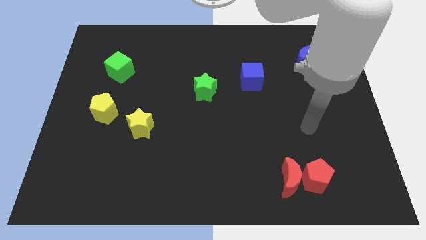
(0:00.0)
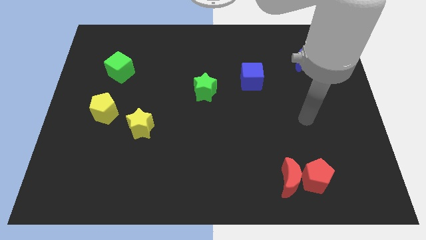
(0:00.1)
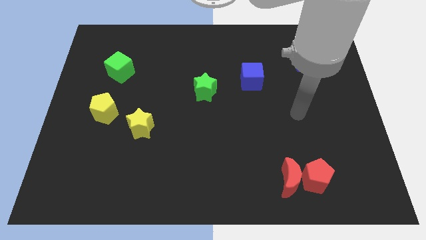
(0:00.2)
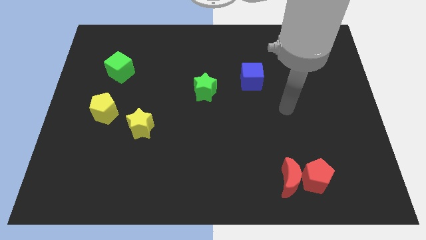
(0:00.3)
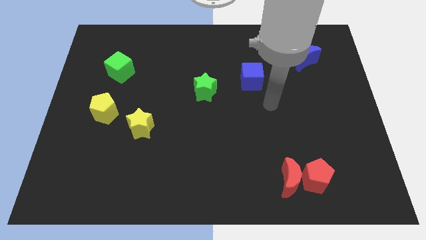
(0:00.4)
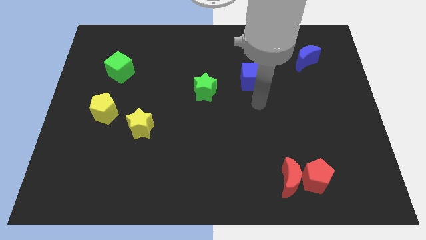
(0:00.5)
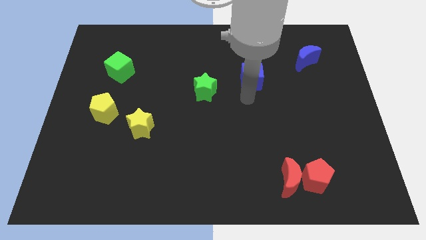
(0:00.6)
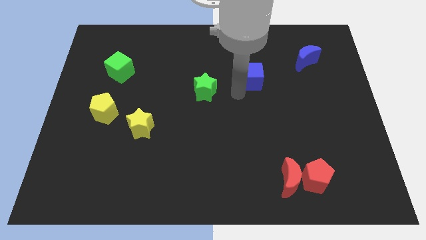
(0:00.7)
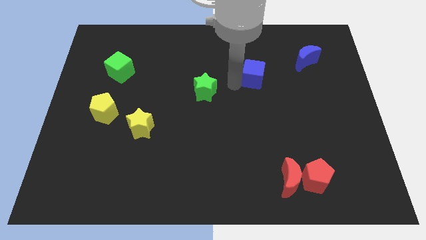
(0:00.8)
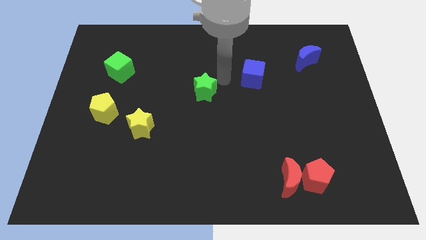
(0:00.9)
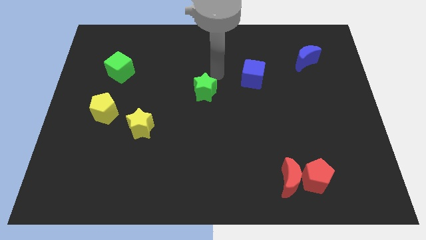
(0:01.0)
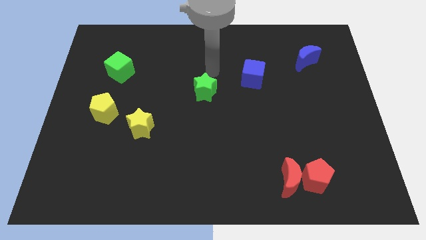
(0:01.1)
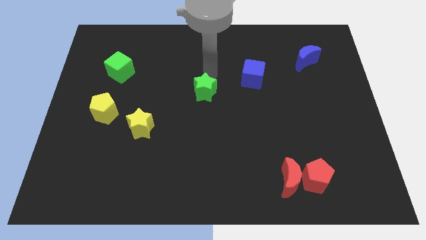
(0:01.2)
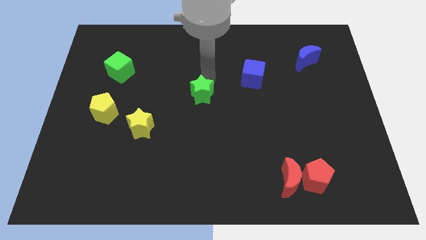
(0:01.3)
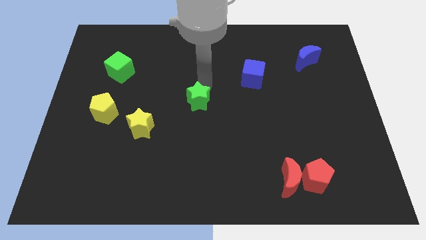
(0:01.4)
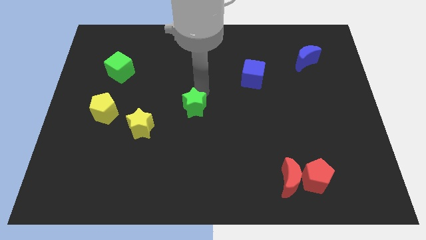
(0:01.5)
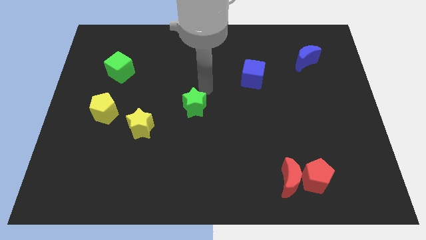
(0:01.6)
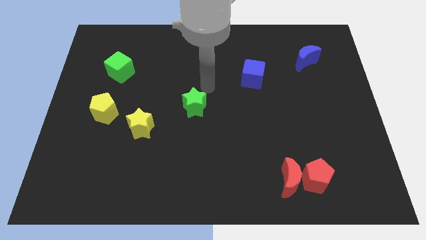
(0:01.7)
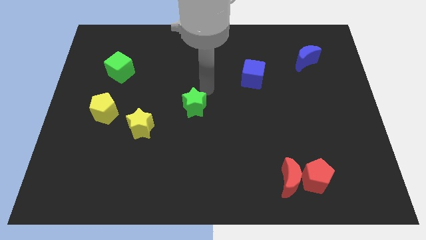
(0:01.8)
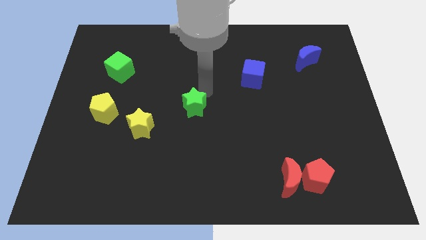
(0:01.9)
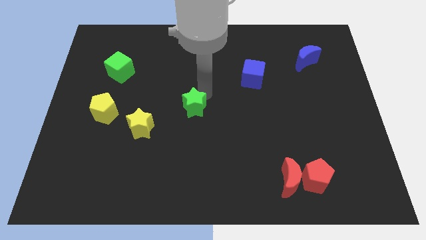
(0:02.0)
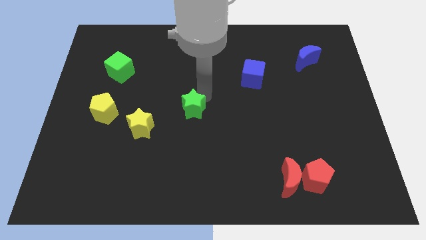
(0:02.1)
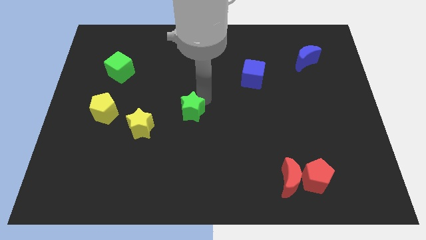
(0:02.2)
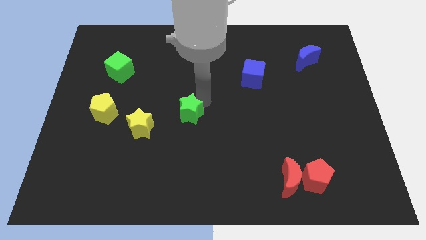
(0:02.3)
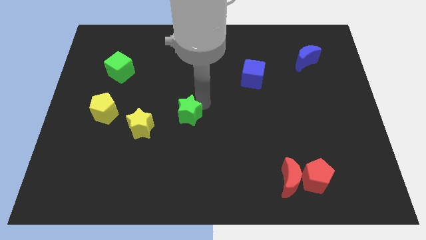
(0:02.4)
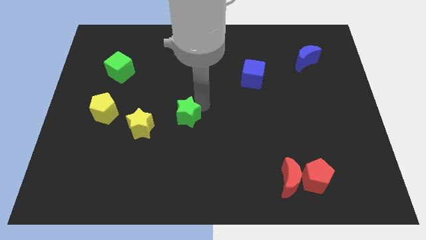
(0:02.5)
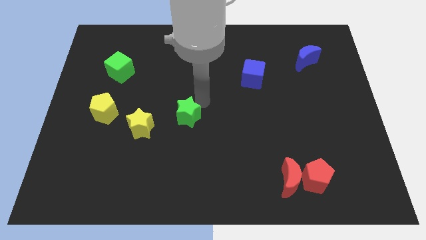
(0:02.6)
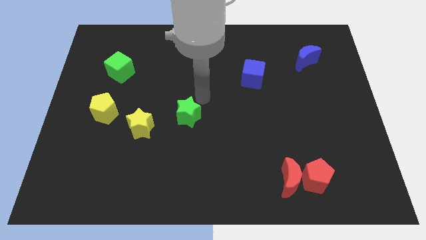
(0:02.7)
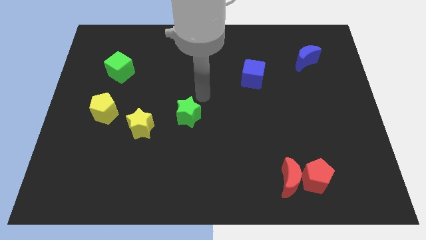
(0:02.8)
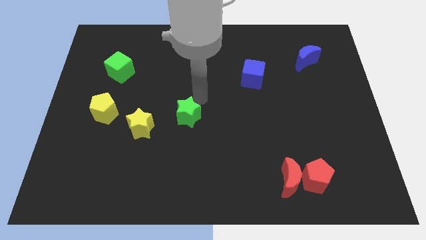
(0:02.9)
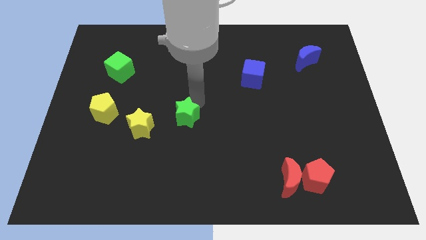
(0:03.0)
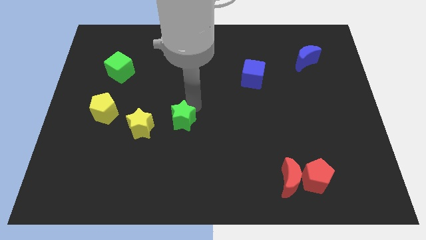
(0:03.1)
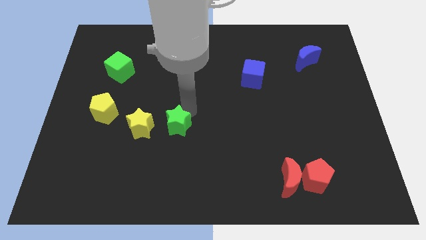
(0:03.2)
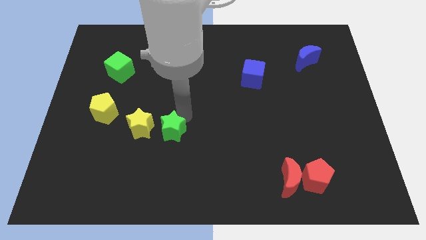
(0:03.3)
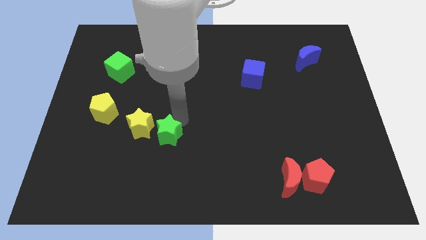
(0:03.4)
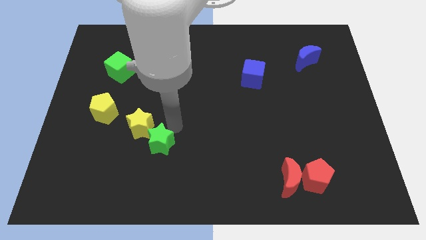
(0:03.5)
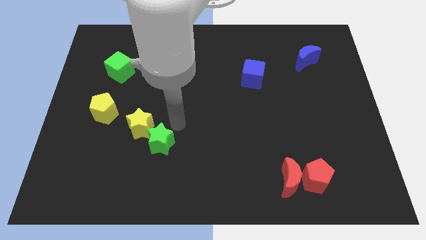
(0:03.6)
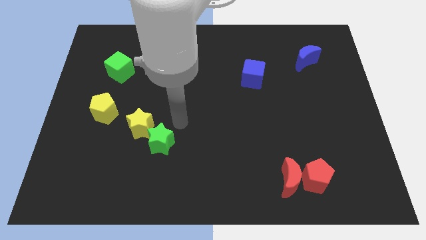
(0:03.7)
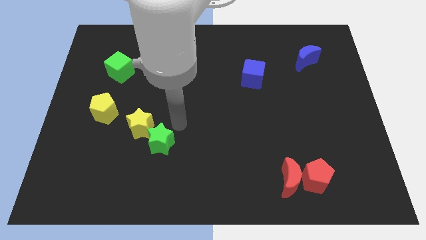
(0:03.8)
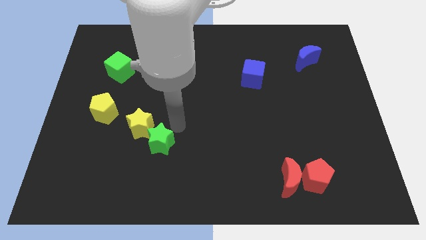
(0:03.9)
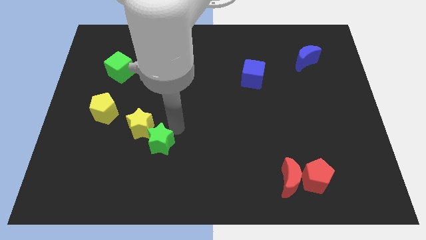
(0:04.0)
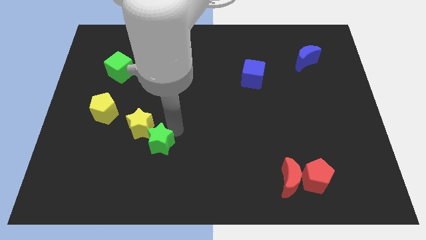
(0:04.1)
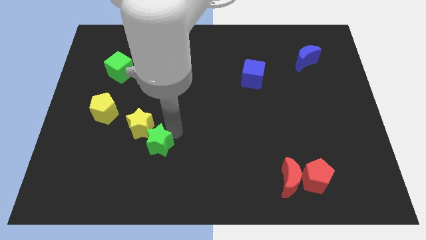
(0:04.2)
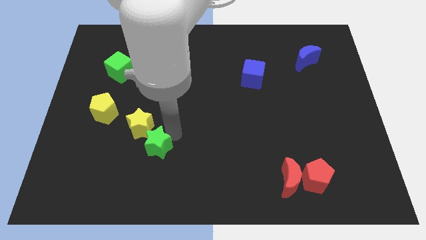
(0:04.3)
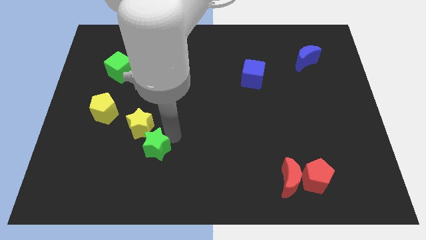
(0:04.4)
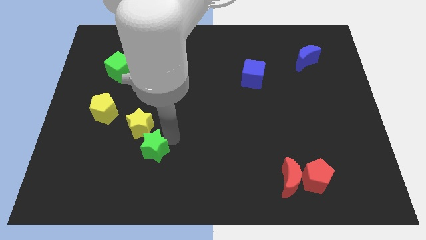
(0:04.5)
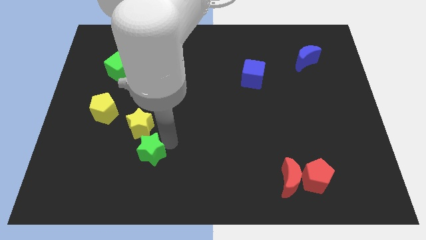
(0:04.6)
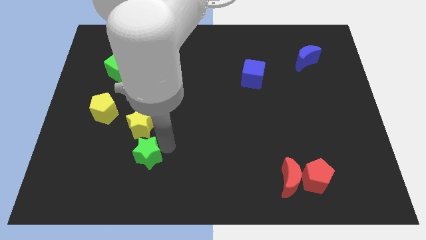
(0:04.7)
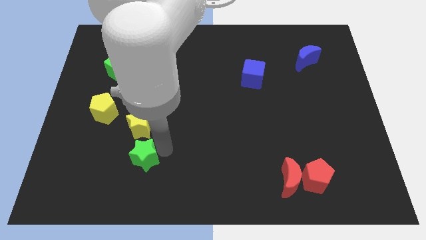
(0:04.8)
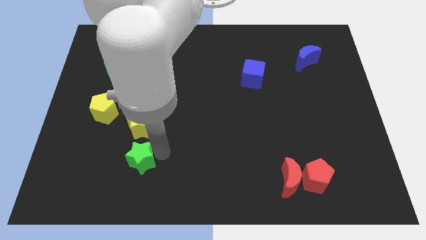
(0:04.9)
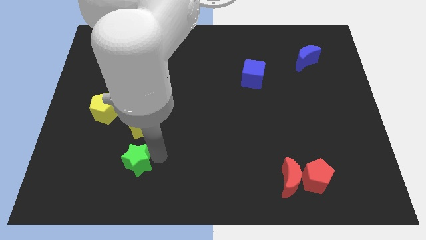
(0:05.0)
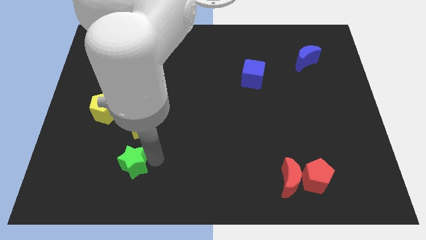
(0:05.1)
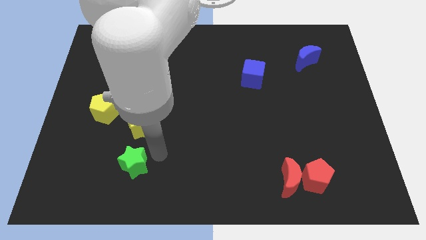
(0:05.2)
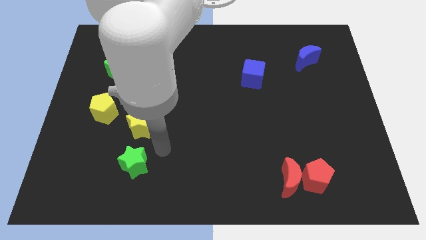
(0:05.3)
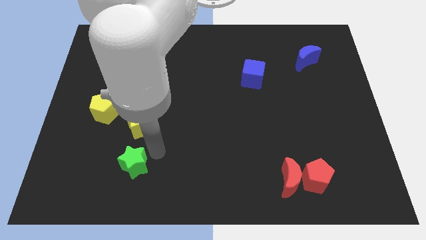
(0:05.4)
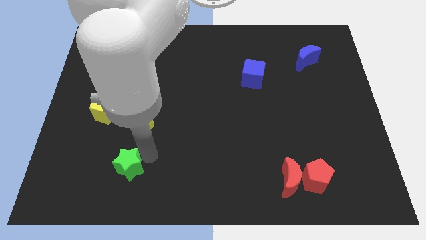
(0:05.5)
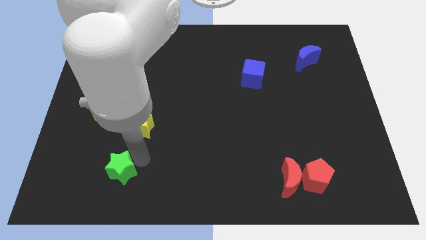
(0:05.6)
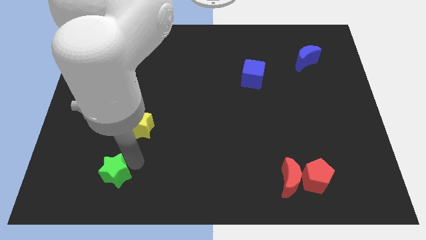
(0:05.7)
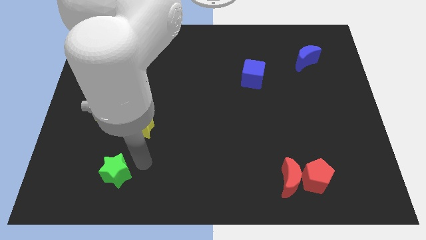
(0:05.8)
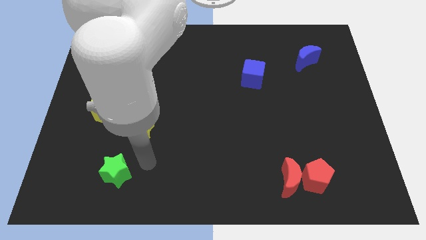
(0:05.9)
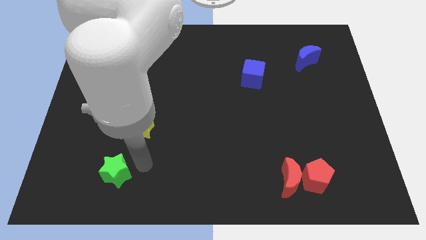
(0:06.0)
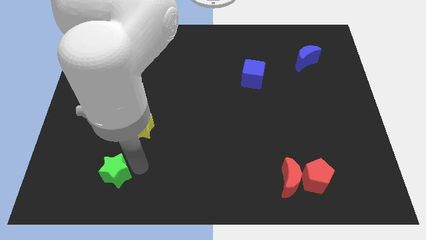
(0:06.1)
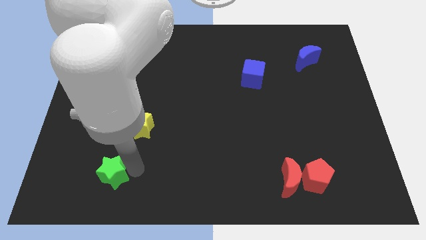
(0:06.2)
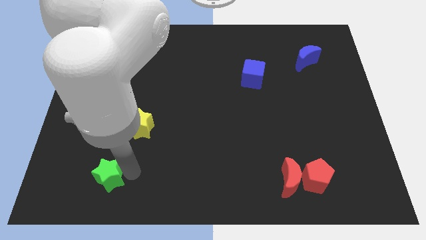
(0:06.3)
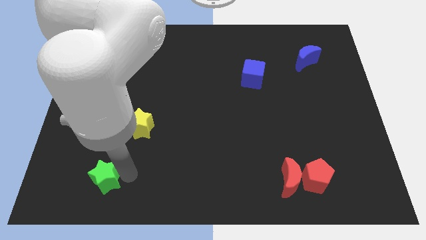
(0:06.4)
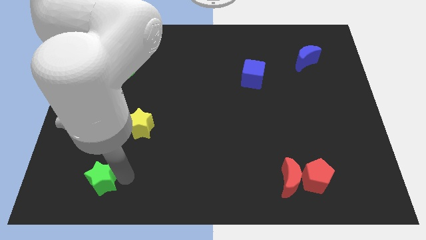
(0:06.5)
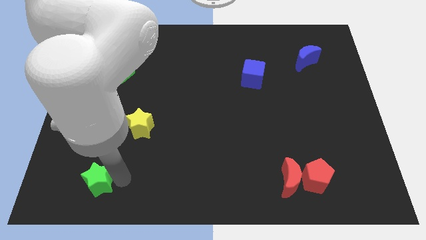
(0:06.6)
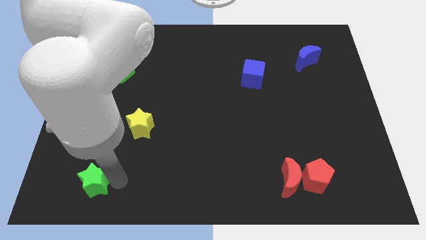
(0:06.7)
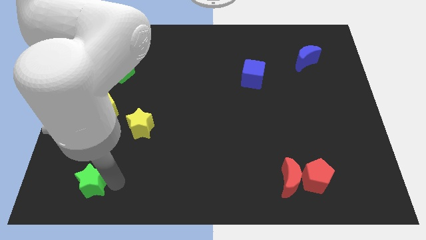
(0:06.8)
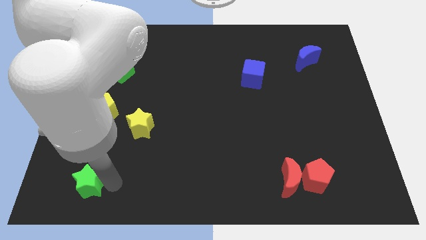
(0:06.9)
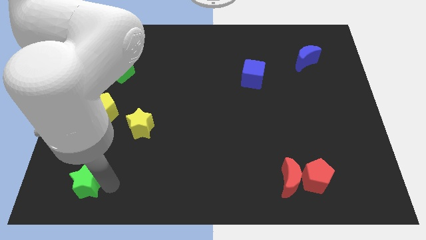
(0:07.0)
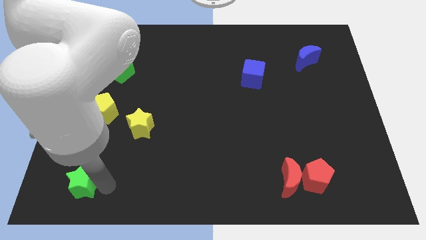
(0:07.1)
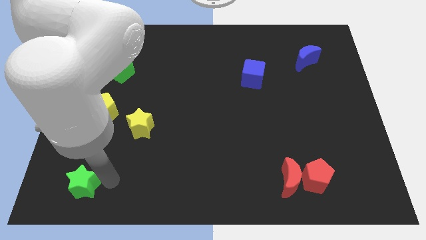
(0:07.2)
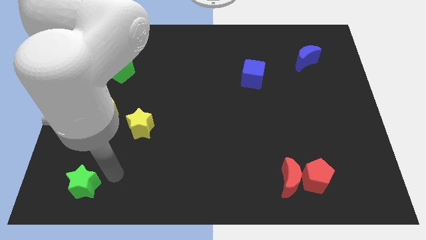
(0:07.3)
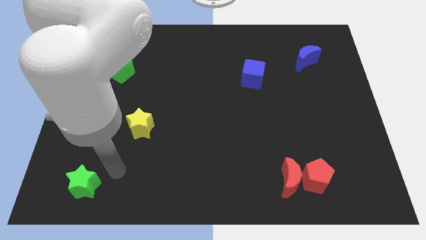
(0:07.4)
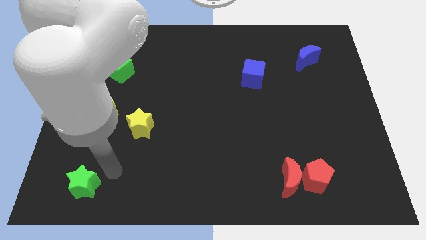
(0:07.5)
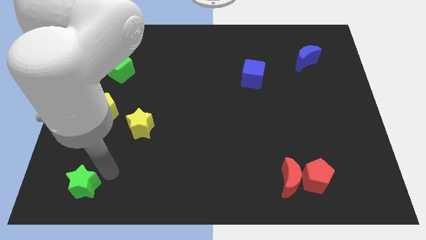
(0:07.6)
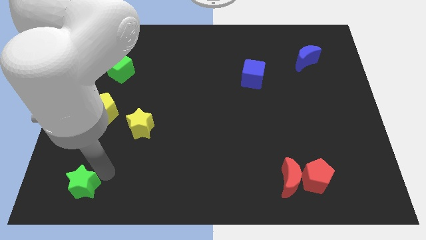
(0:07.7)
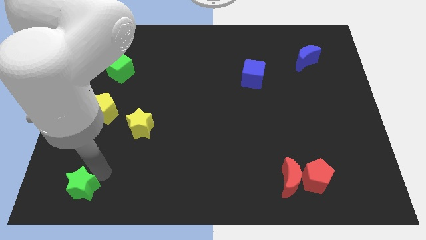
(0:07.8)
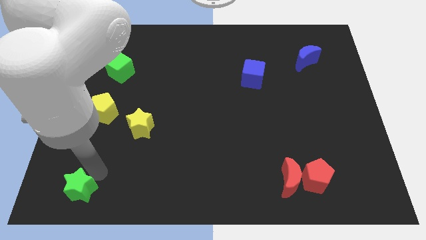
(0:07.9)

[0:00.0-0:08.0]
move the green star to the bottom left
